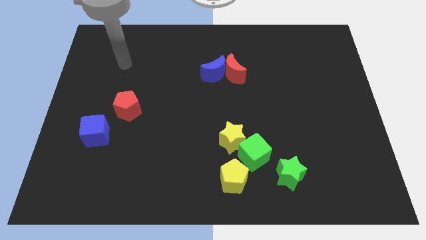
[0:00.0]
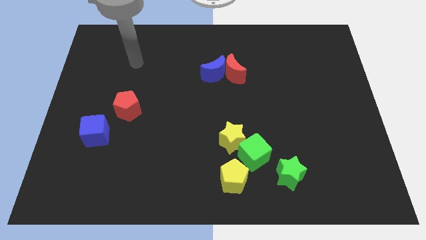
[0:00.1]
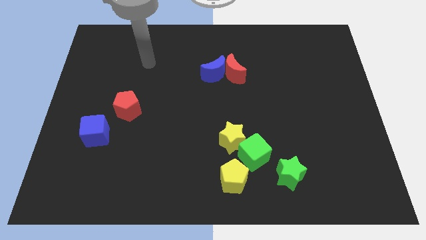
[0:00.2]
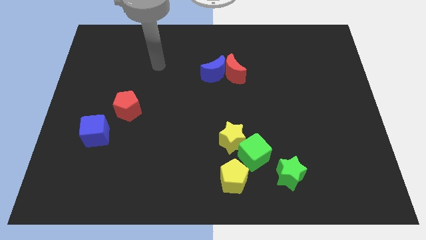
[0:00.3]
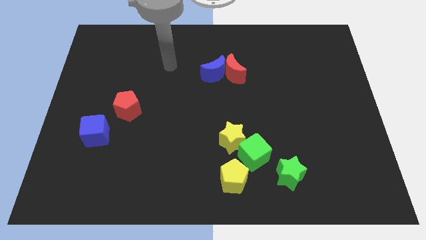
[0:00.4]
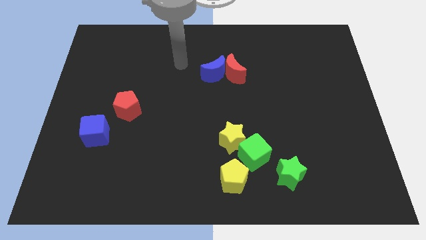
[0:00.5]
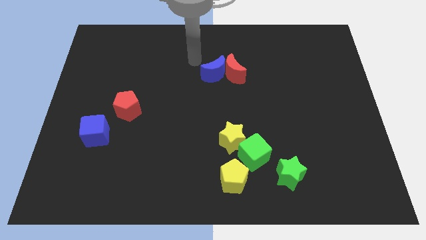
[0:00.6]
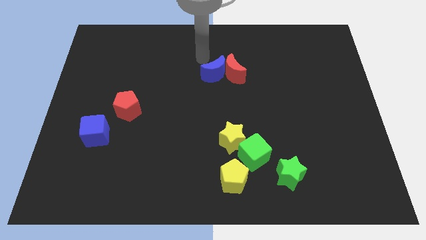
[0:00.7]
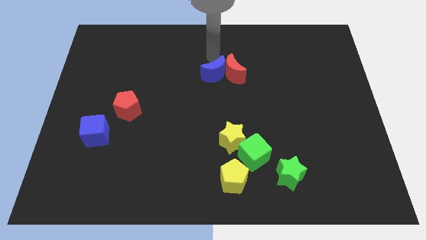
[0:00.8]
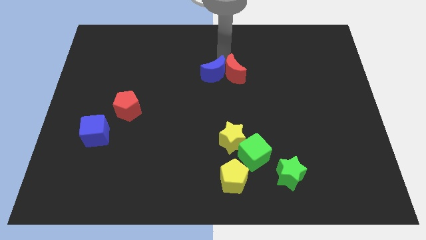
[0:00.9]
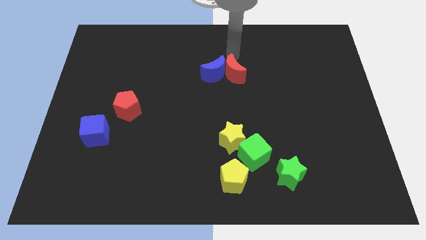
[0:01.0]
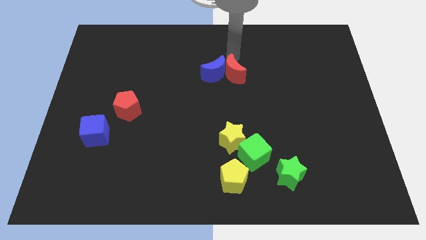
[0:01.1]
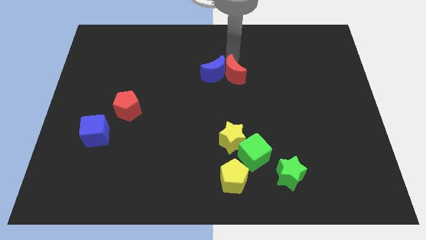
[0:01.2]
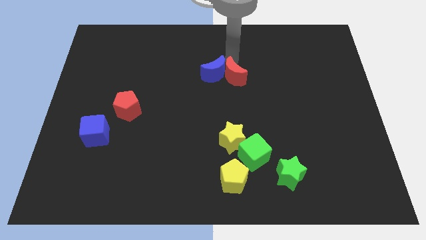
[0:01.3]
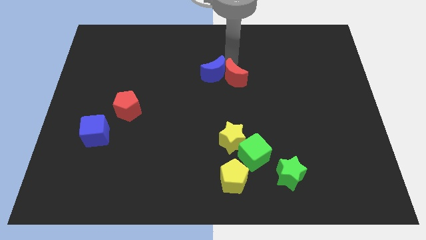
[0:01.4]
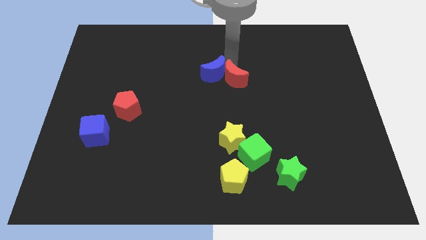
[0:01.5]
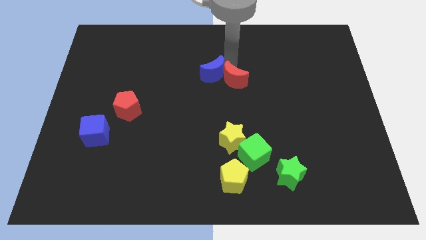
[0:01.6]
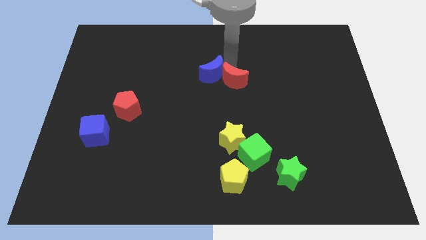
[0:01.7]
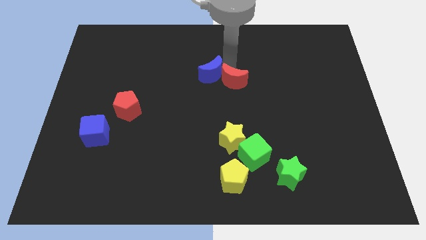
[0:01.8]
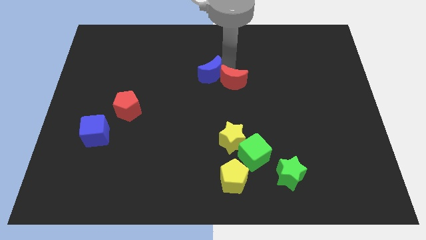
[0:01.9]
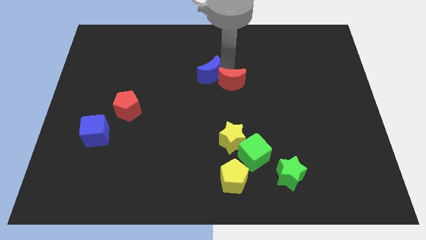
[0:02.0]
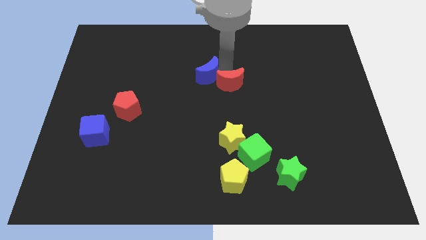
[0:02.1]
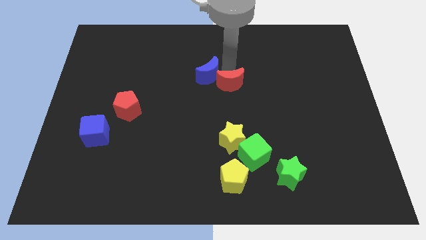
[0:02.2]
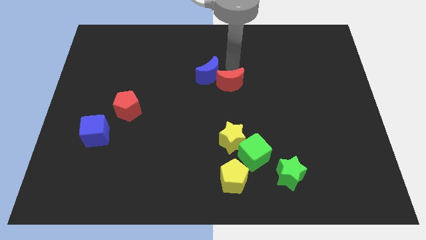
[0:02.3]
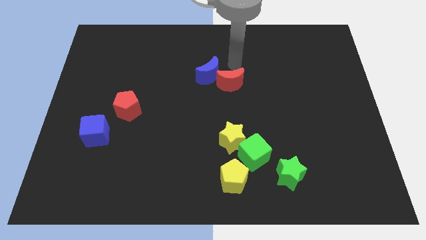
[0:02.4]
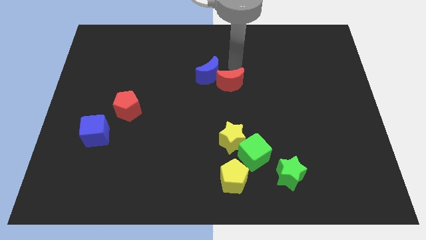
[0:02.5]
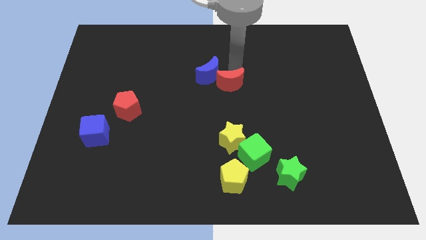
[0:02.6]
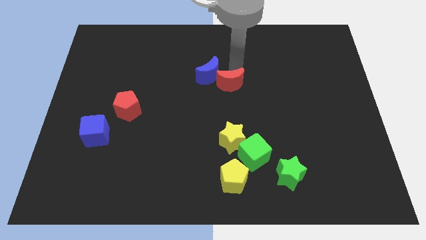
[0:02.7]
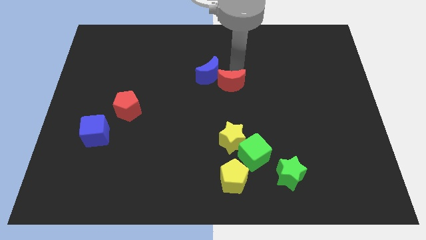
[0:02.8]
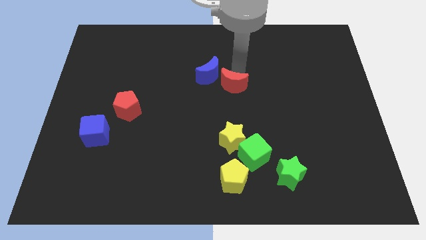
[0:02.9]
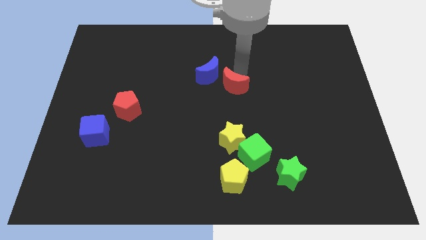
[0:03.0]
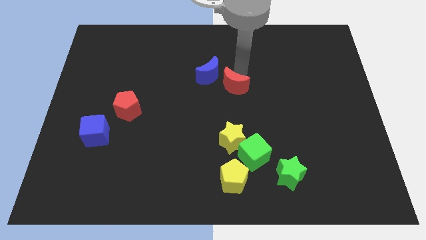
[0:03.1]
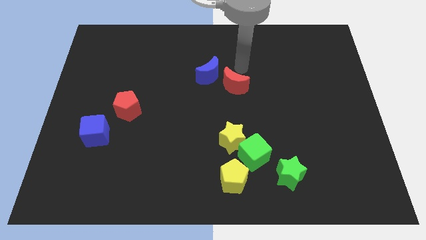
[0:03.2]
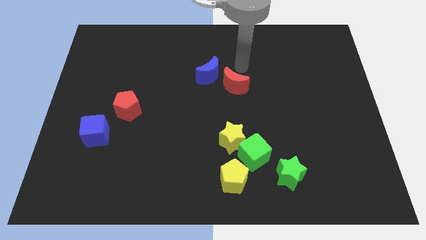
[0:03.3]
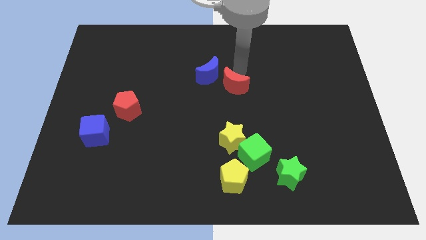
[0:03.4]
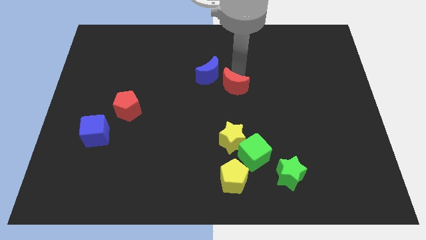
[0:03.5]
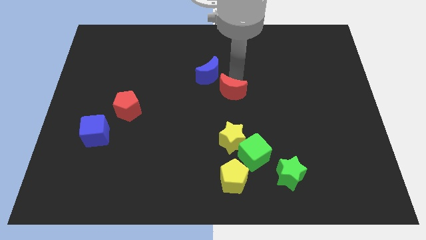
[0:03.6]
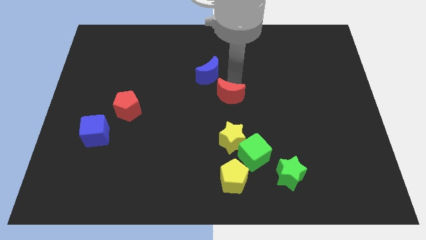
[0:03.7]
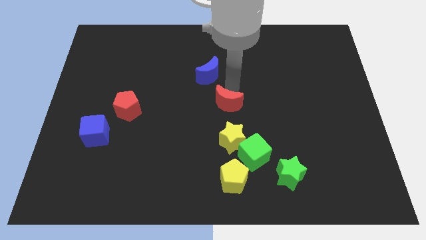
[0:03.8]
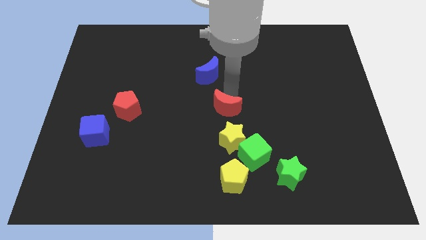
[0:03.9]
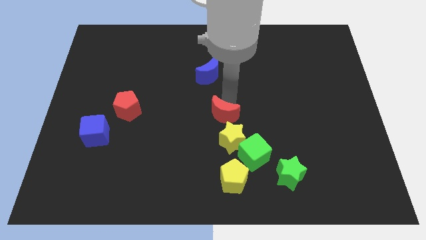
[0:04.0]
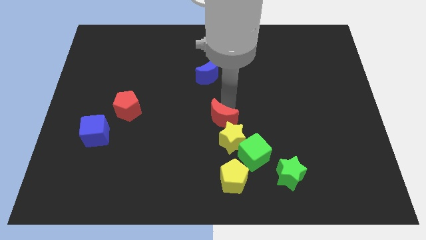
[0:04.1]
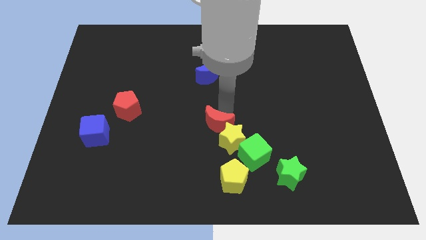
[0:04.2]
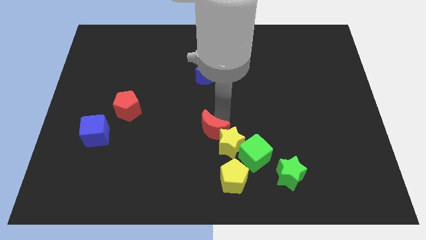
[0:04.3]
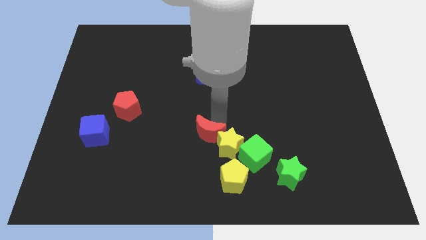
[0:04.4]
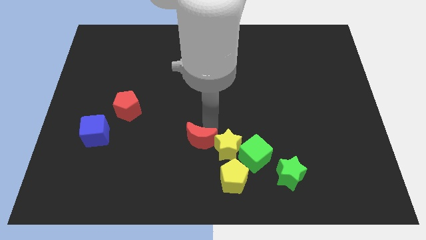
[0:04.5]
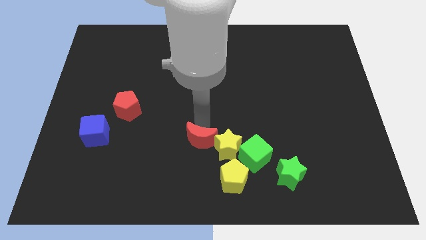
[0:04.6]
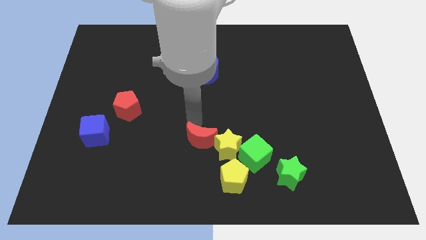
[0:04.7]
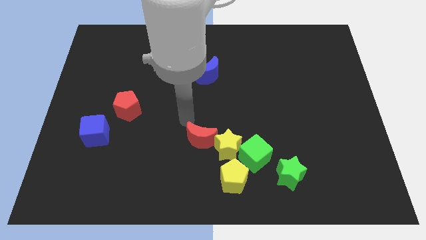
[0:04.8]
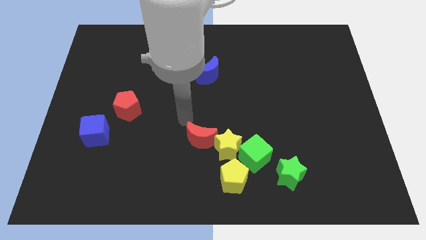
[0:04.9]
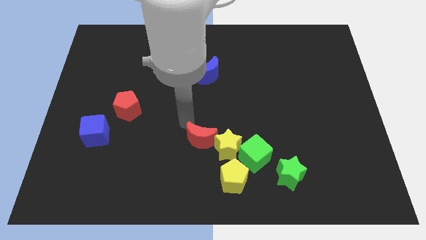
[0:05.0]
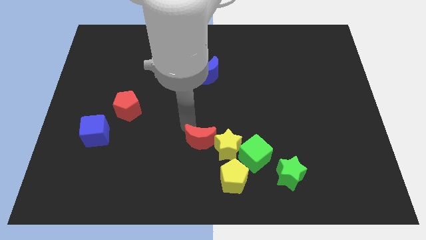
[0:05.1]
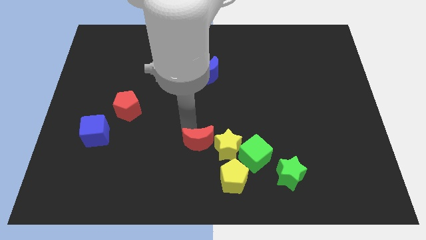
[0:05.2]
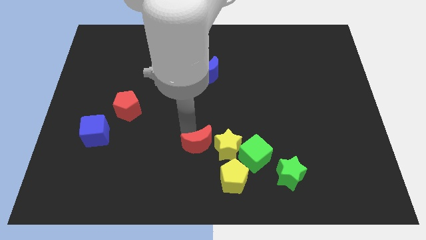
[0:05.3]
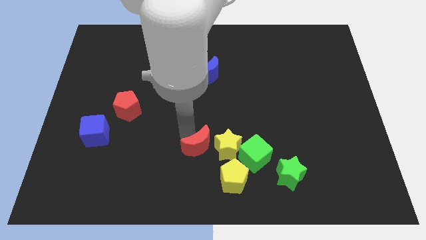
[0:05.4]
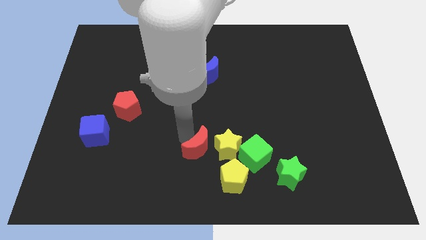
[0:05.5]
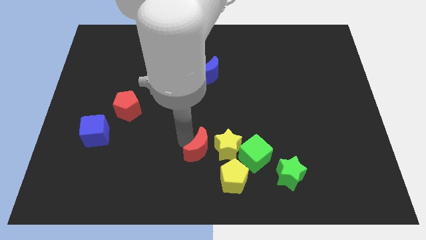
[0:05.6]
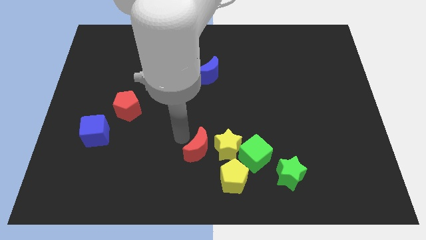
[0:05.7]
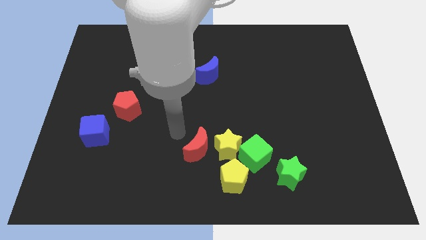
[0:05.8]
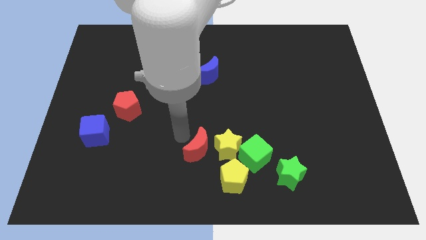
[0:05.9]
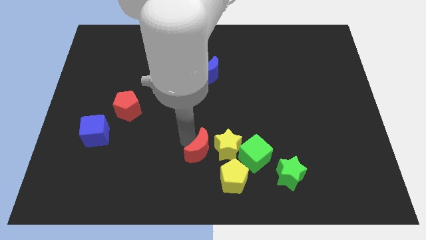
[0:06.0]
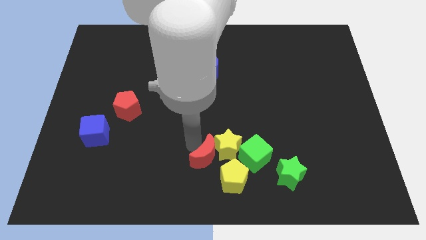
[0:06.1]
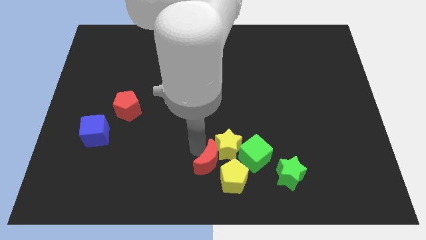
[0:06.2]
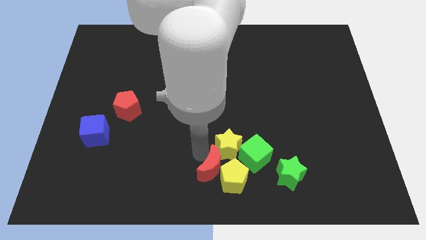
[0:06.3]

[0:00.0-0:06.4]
push the red moon next to the yellow pentagon

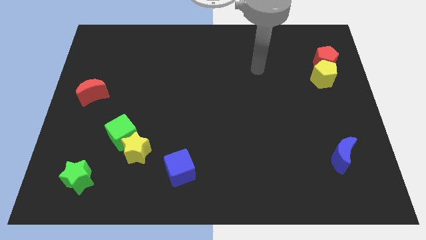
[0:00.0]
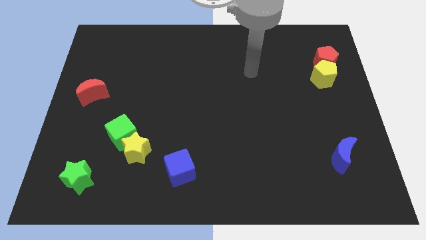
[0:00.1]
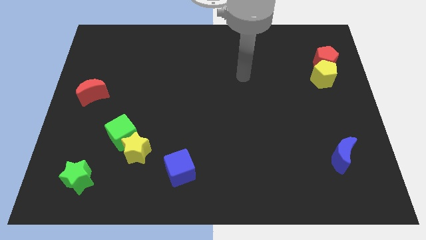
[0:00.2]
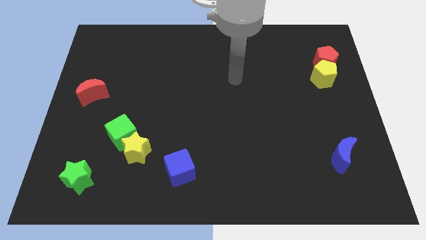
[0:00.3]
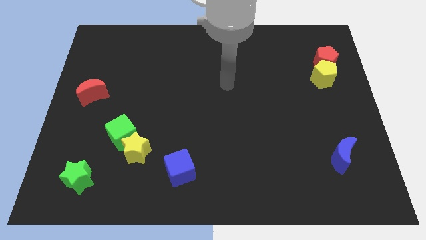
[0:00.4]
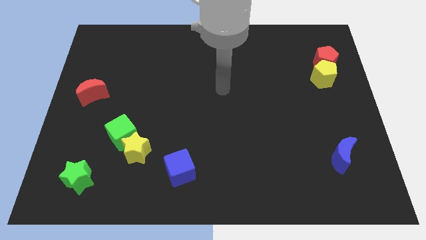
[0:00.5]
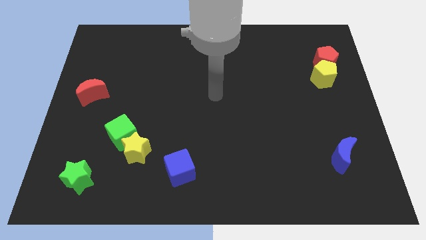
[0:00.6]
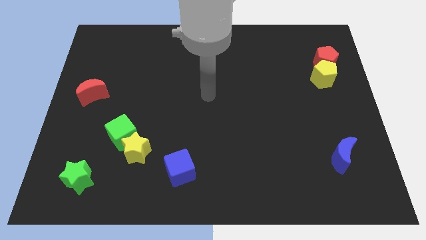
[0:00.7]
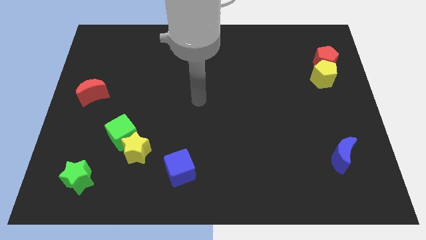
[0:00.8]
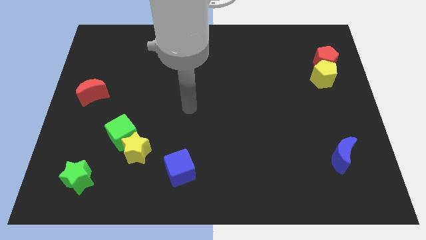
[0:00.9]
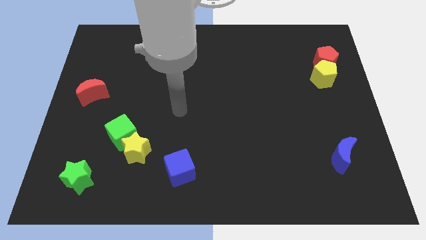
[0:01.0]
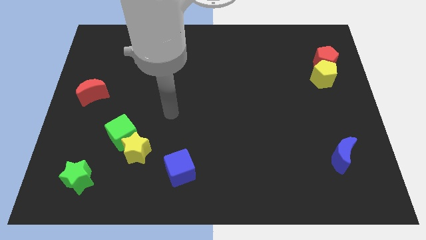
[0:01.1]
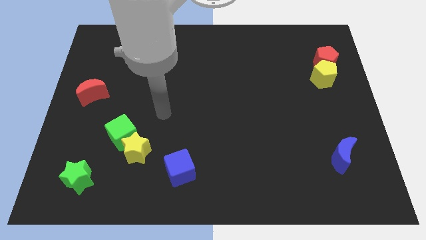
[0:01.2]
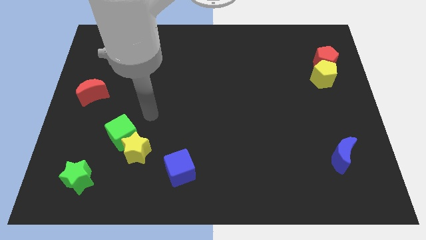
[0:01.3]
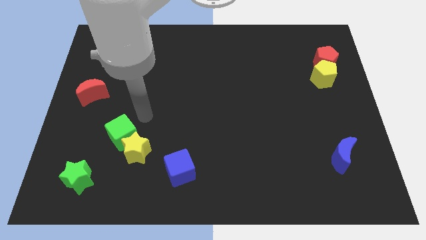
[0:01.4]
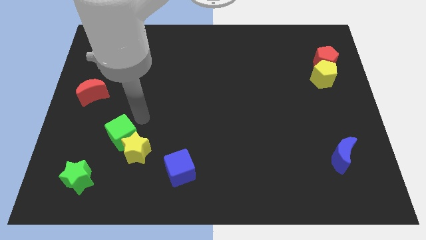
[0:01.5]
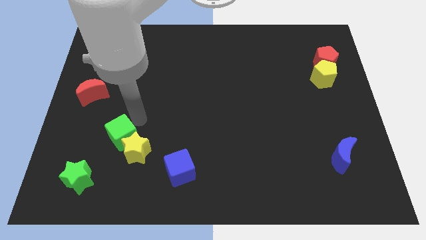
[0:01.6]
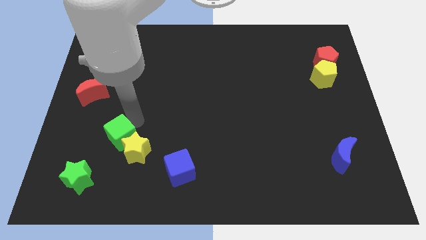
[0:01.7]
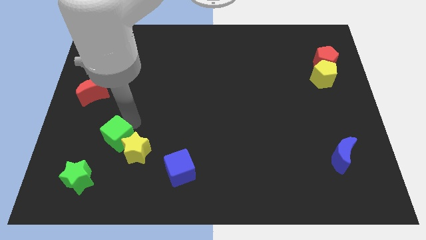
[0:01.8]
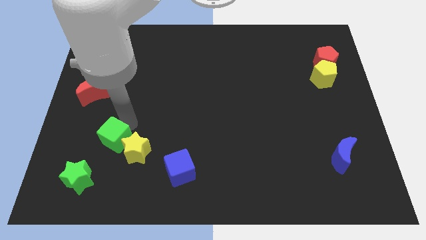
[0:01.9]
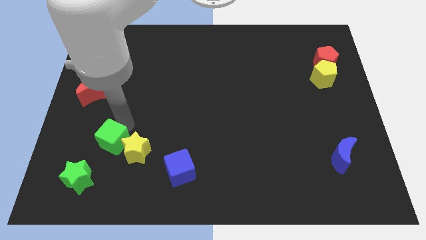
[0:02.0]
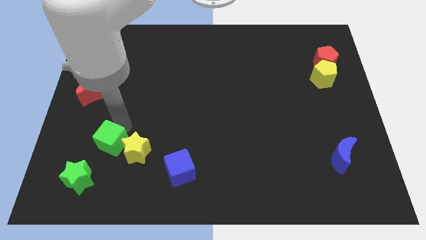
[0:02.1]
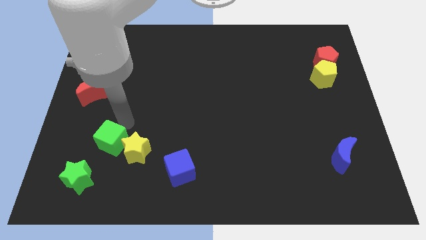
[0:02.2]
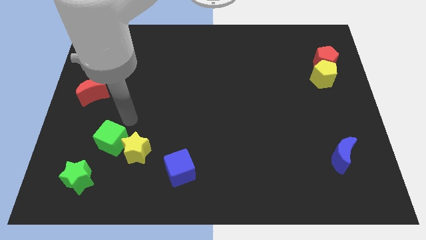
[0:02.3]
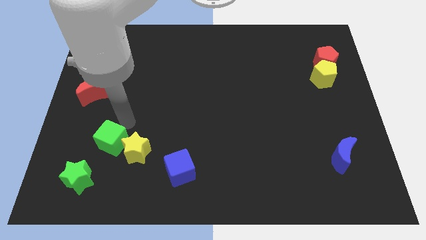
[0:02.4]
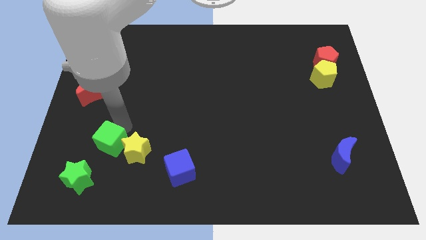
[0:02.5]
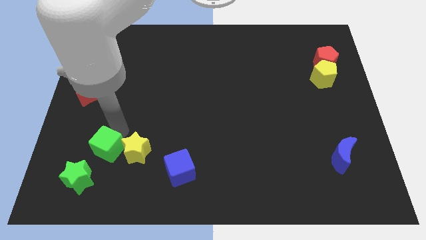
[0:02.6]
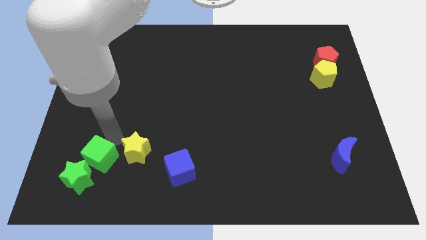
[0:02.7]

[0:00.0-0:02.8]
put the green cube towards the green star
